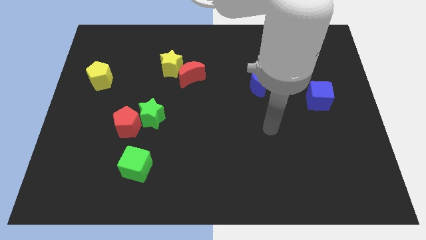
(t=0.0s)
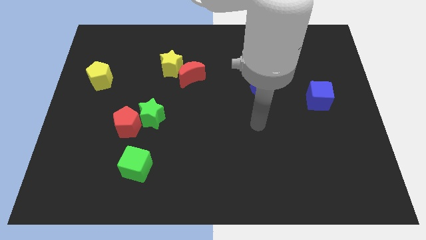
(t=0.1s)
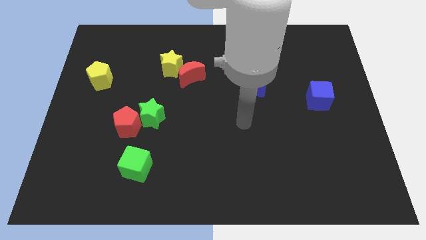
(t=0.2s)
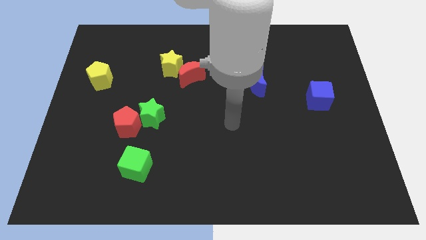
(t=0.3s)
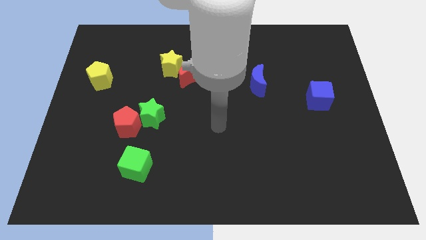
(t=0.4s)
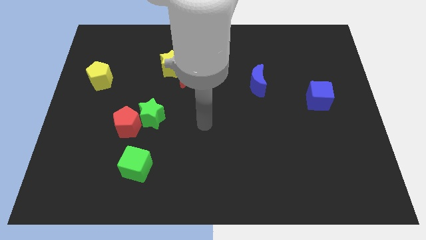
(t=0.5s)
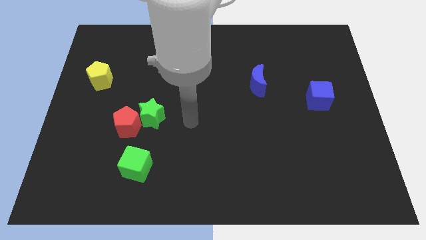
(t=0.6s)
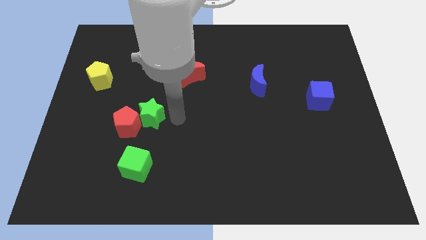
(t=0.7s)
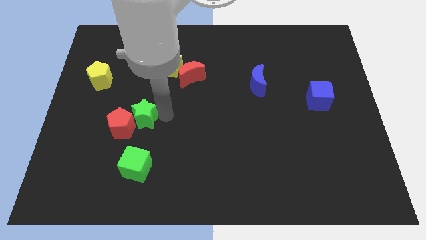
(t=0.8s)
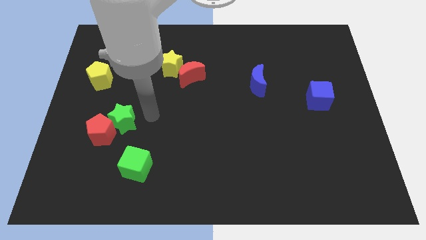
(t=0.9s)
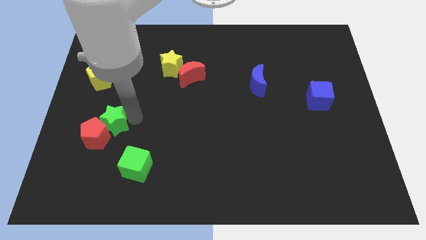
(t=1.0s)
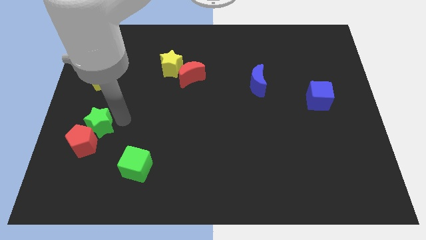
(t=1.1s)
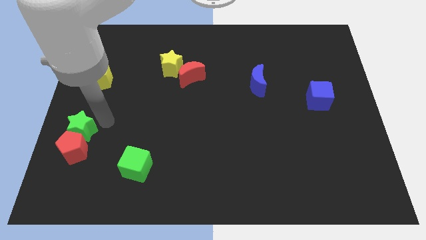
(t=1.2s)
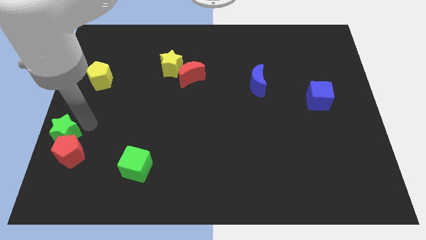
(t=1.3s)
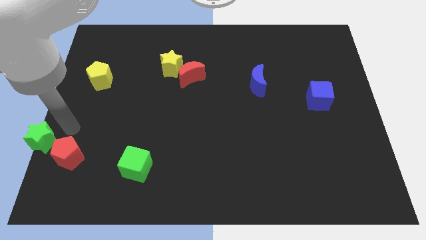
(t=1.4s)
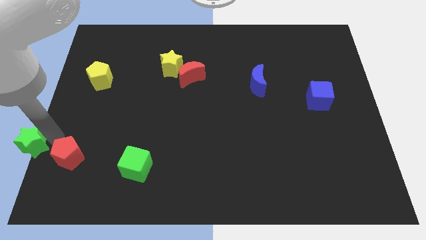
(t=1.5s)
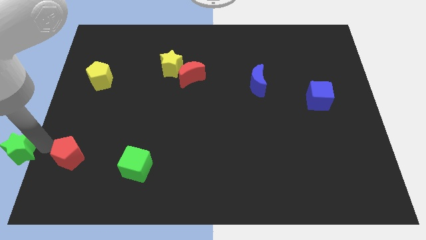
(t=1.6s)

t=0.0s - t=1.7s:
pull the red pentagon apart from the green star

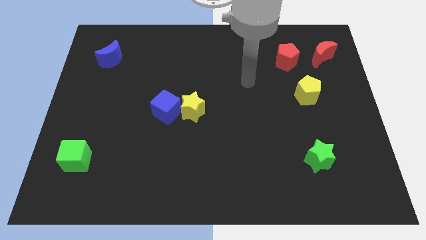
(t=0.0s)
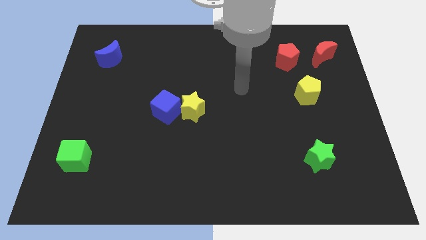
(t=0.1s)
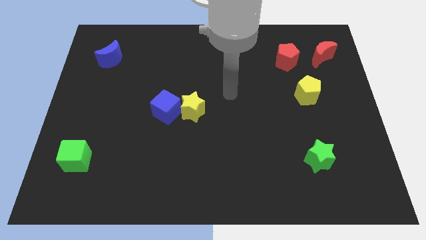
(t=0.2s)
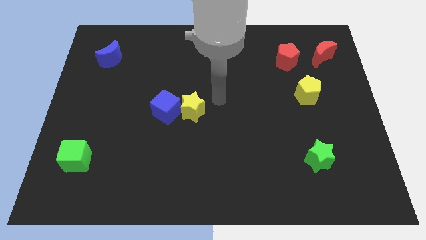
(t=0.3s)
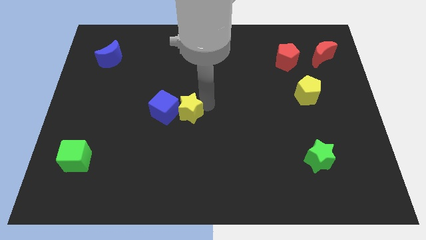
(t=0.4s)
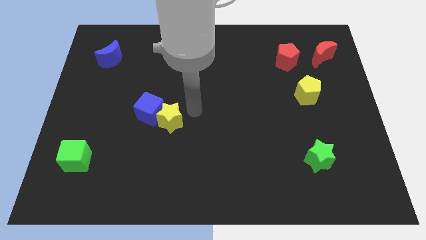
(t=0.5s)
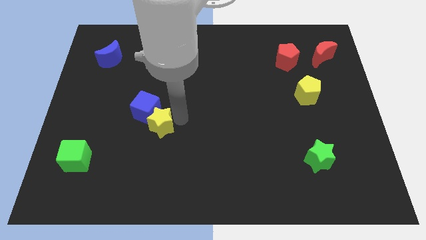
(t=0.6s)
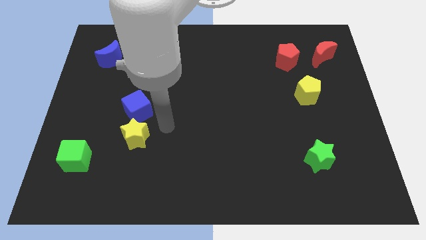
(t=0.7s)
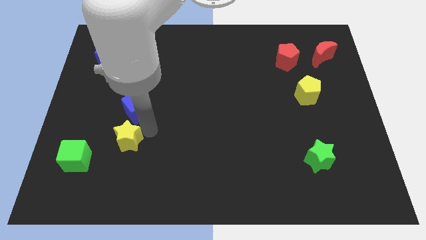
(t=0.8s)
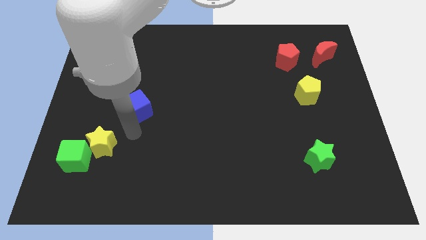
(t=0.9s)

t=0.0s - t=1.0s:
move the blue cube away from the yellow star

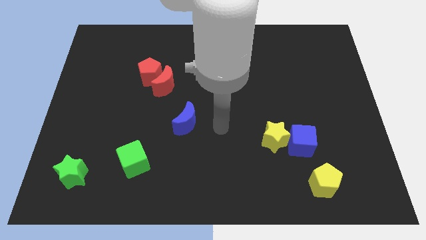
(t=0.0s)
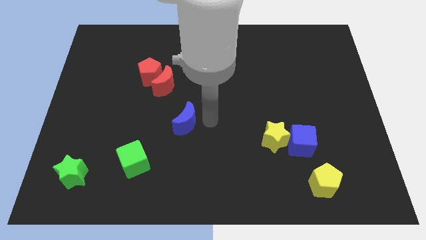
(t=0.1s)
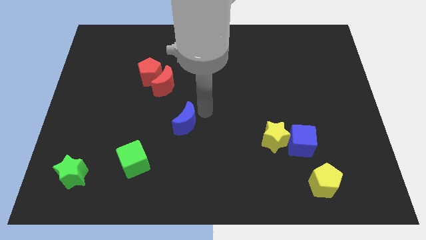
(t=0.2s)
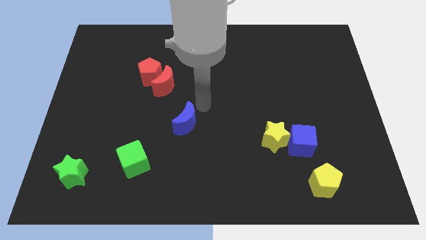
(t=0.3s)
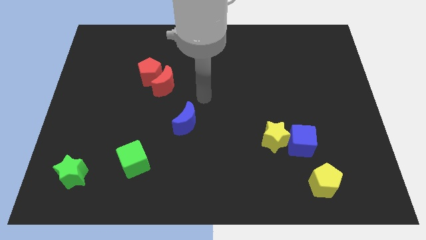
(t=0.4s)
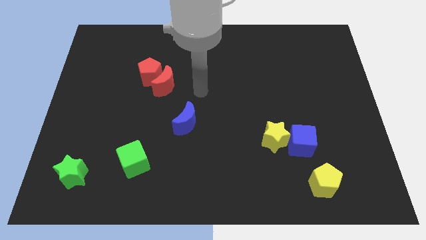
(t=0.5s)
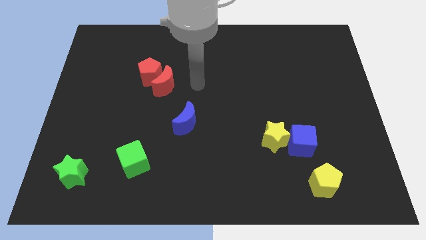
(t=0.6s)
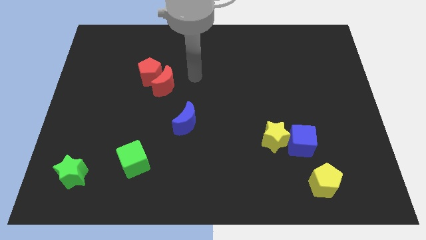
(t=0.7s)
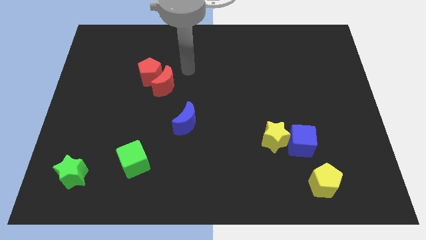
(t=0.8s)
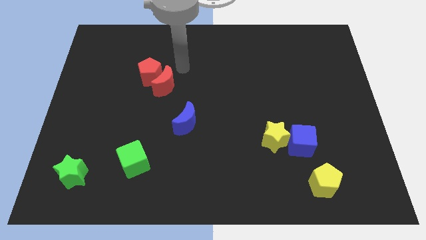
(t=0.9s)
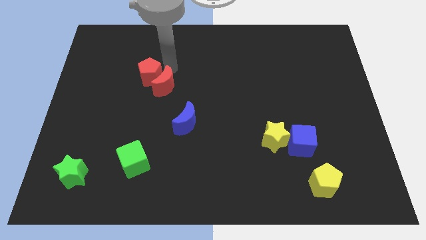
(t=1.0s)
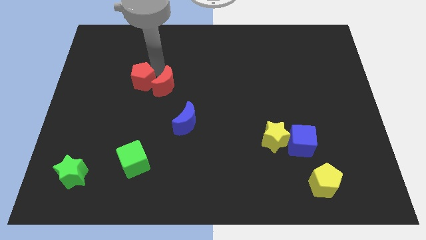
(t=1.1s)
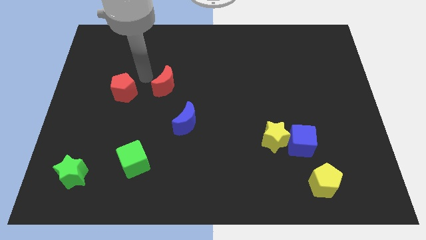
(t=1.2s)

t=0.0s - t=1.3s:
separate the red moon from the red pentagon

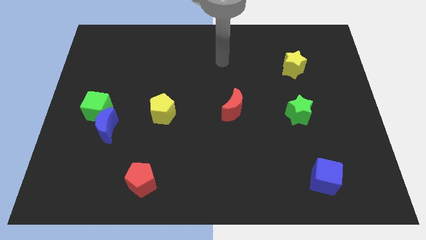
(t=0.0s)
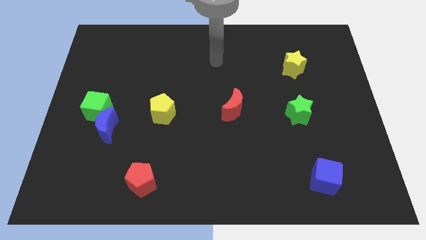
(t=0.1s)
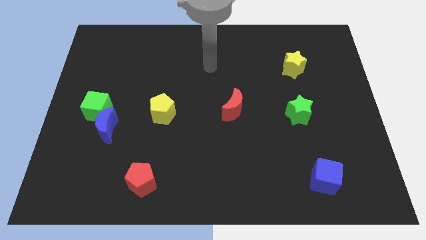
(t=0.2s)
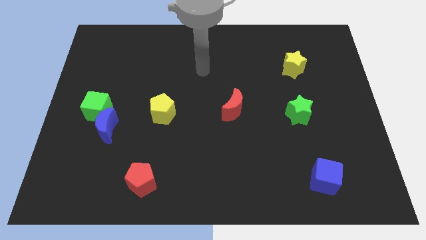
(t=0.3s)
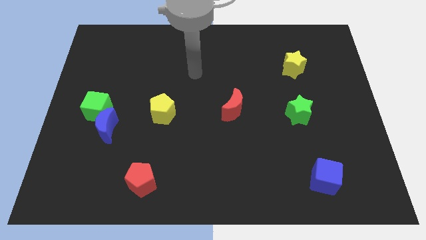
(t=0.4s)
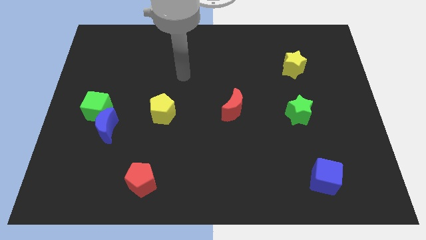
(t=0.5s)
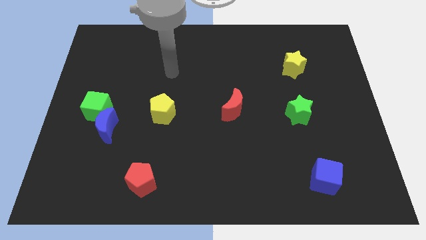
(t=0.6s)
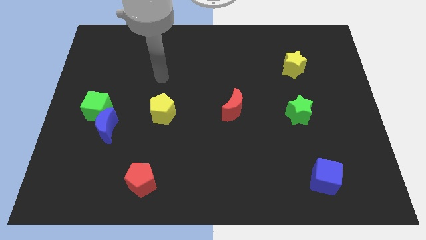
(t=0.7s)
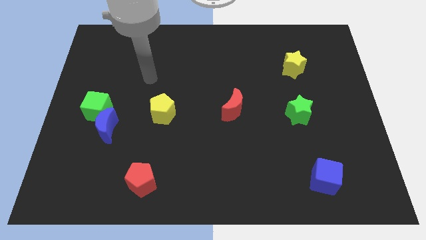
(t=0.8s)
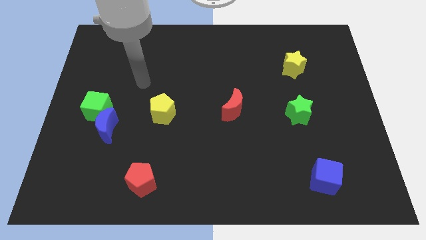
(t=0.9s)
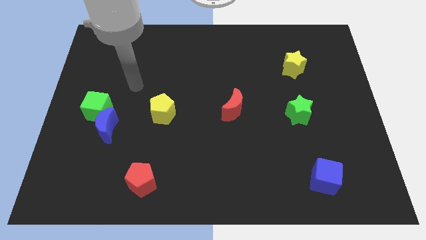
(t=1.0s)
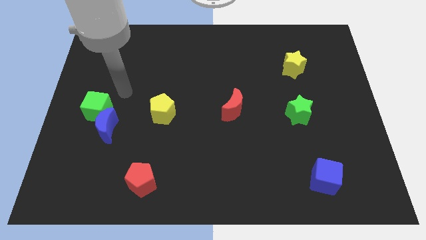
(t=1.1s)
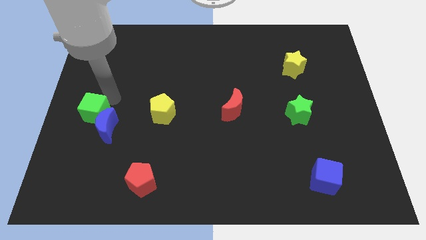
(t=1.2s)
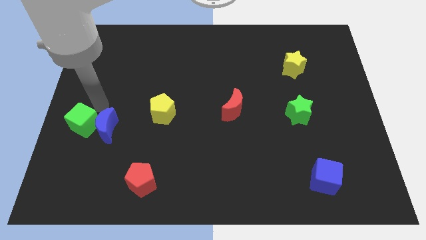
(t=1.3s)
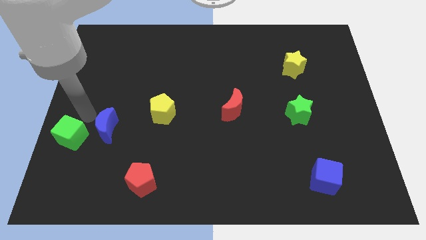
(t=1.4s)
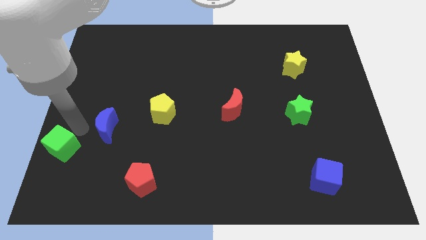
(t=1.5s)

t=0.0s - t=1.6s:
pull the blue moon apart from the green cube

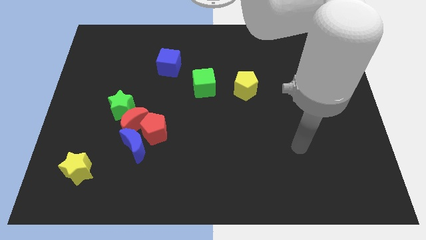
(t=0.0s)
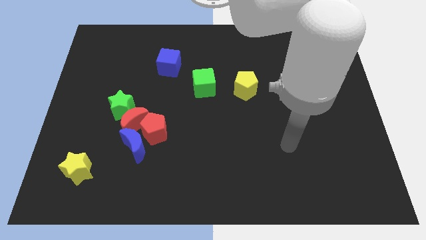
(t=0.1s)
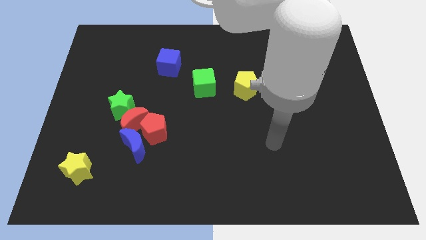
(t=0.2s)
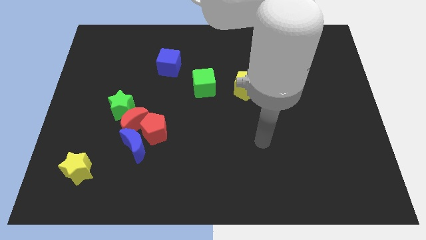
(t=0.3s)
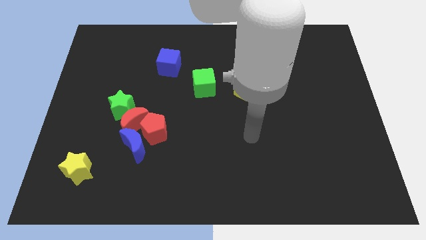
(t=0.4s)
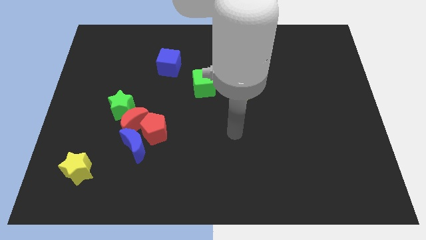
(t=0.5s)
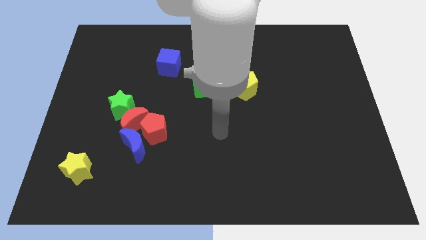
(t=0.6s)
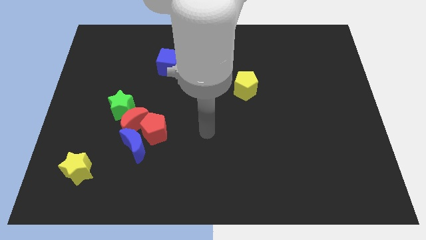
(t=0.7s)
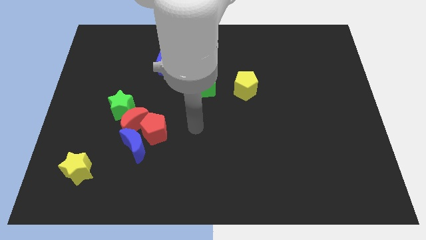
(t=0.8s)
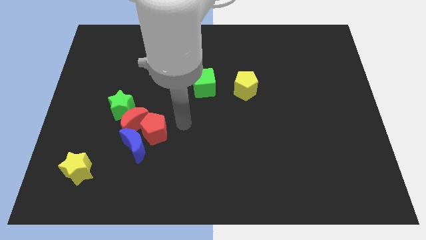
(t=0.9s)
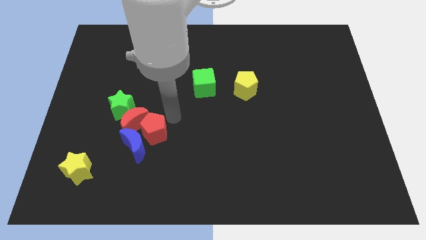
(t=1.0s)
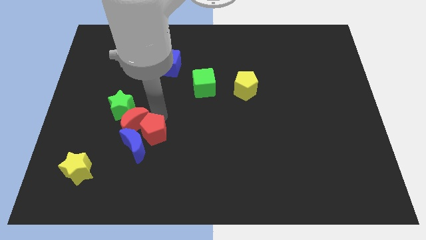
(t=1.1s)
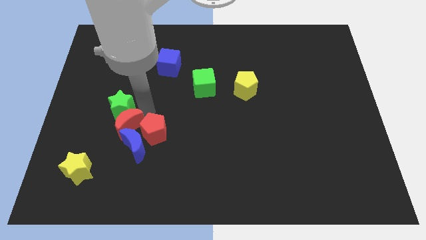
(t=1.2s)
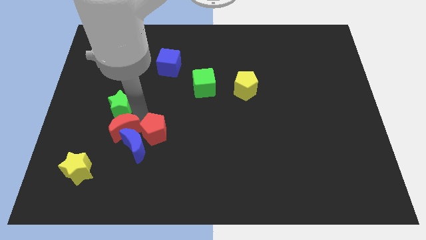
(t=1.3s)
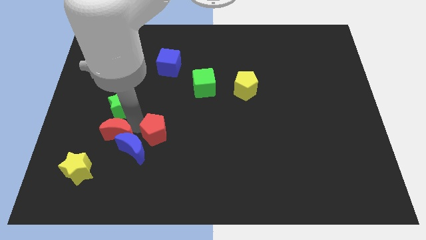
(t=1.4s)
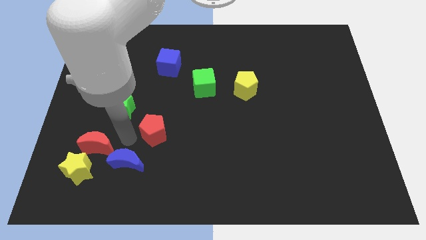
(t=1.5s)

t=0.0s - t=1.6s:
move the red pentagon away from the red moon and blue moon

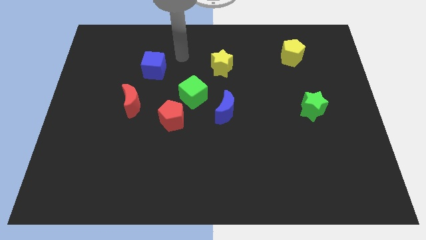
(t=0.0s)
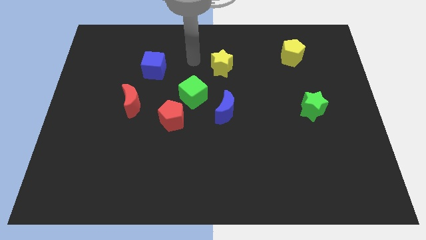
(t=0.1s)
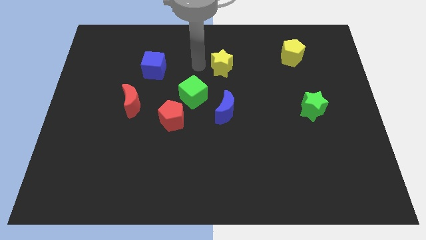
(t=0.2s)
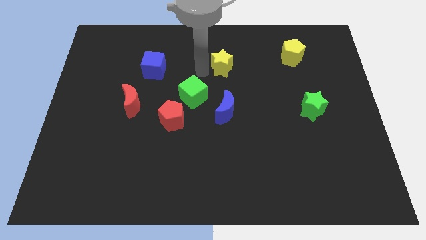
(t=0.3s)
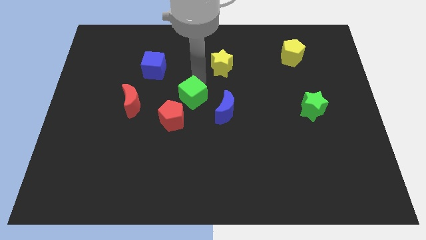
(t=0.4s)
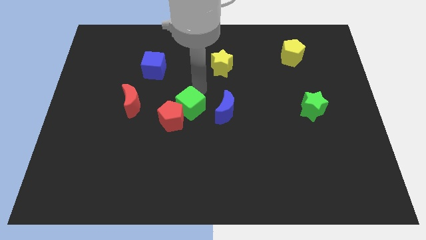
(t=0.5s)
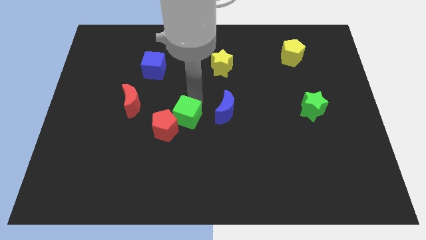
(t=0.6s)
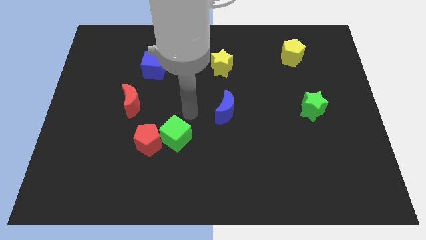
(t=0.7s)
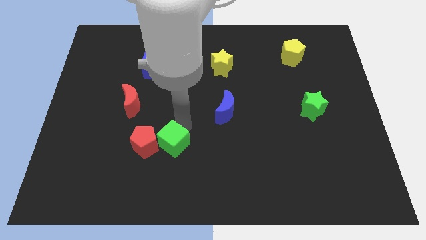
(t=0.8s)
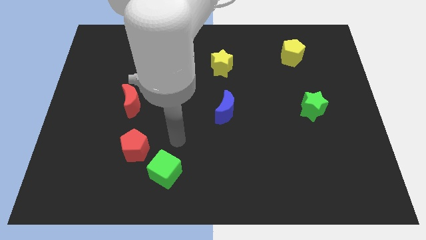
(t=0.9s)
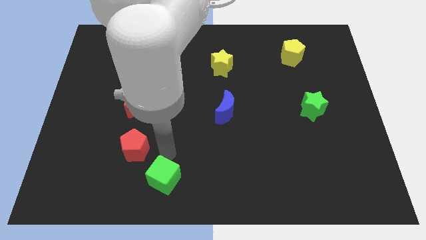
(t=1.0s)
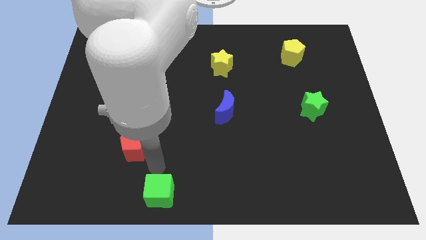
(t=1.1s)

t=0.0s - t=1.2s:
separate the red pentagon from the green cube

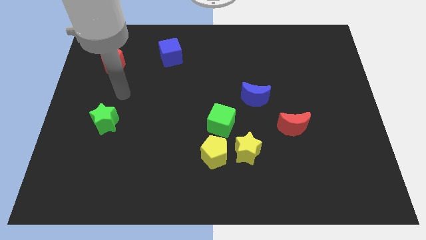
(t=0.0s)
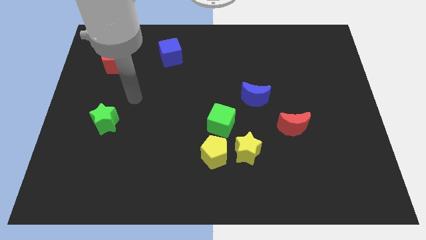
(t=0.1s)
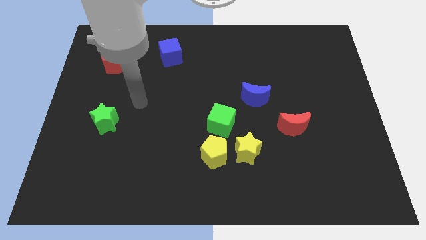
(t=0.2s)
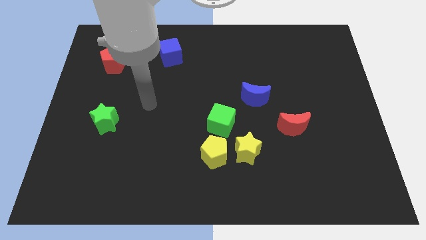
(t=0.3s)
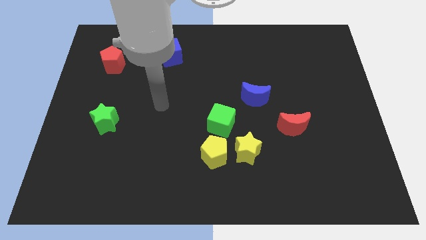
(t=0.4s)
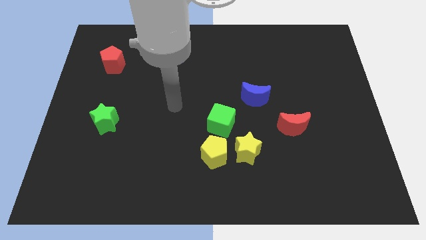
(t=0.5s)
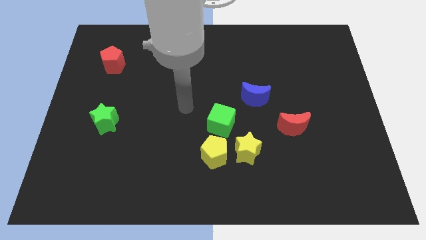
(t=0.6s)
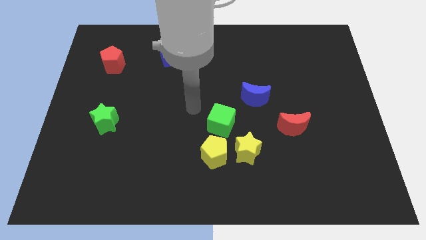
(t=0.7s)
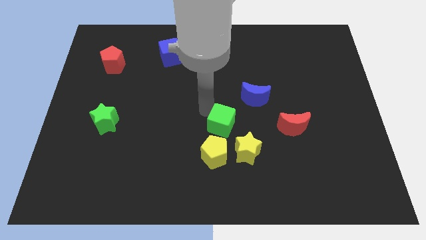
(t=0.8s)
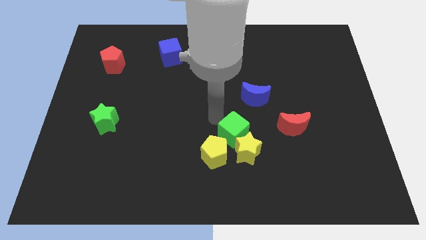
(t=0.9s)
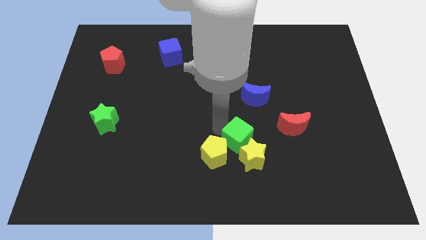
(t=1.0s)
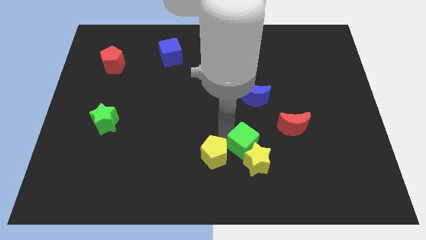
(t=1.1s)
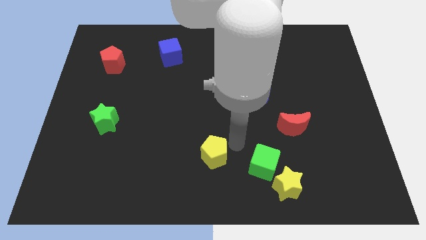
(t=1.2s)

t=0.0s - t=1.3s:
pull the yellow pentagon apart from the yellow star and green cube
